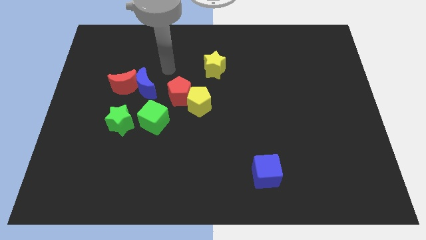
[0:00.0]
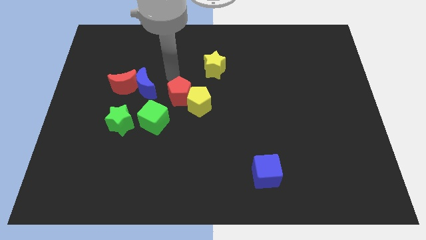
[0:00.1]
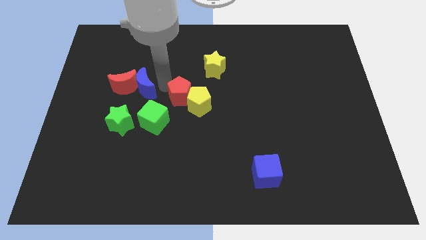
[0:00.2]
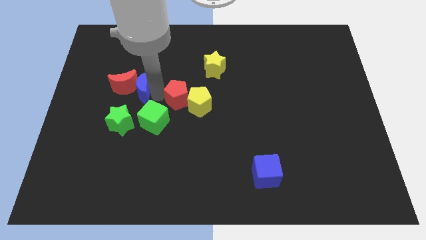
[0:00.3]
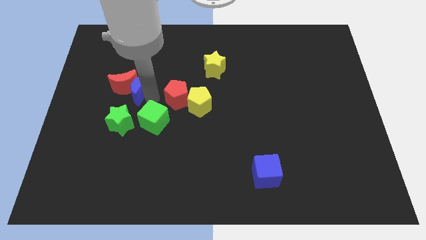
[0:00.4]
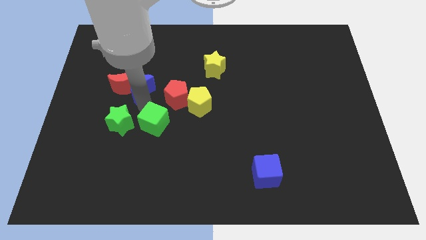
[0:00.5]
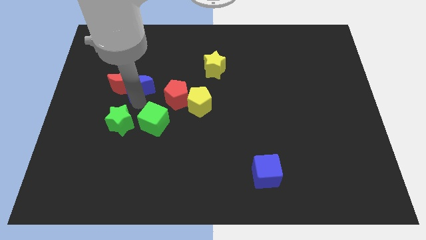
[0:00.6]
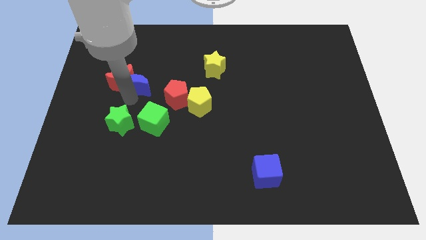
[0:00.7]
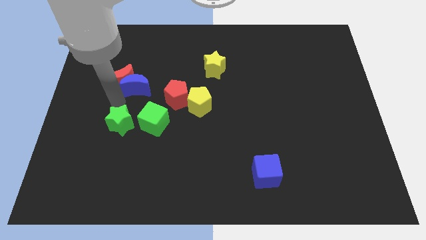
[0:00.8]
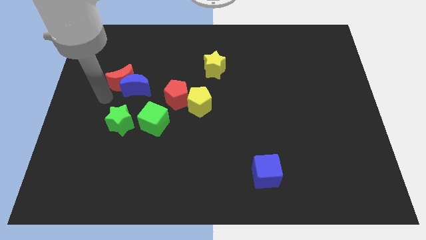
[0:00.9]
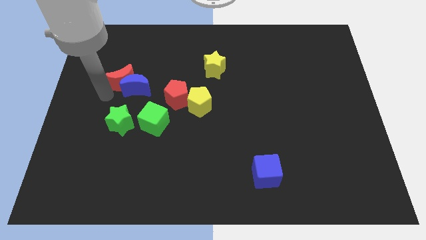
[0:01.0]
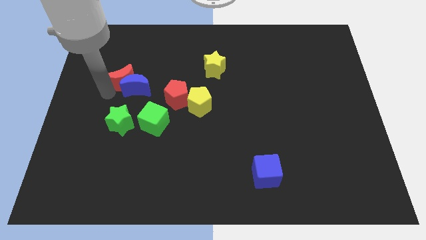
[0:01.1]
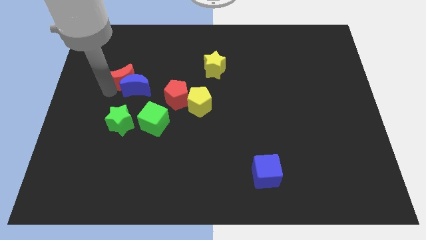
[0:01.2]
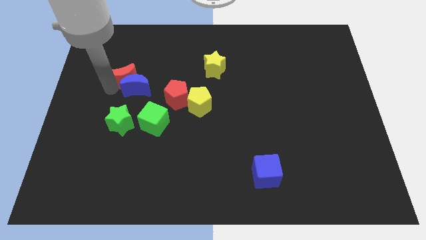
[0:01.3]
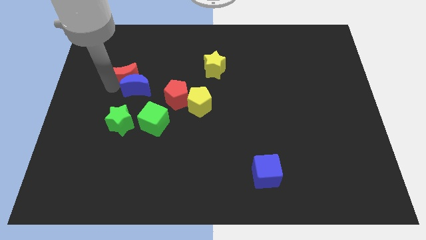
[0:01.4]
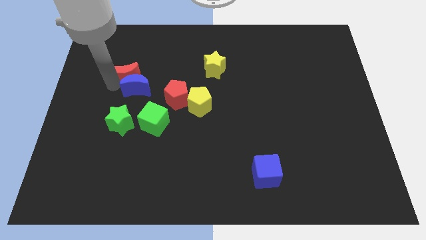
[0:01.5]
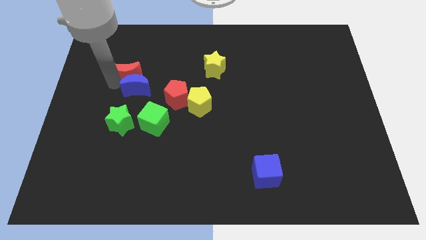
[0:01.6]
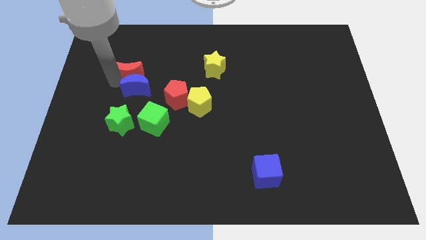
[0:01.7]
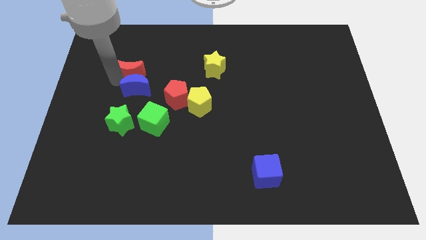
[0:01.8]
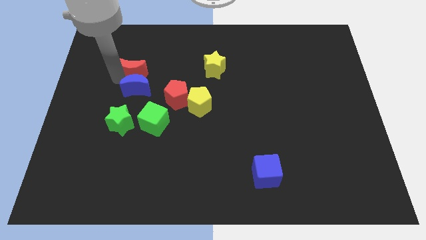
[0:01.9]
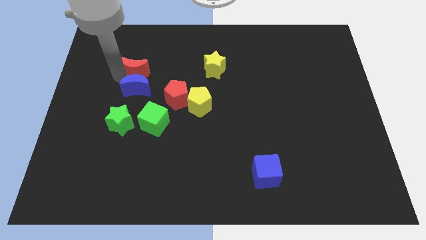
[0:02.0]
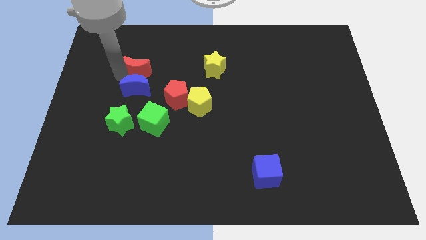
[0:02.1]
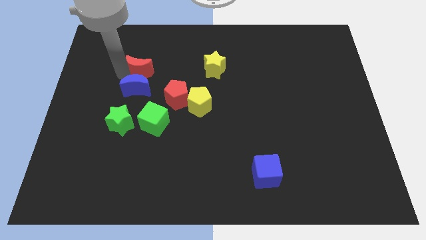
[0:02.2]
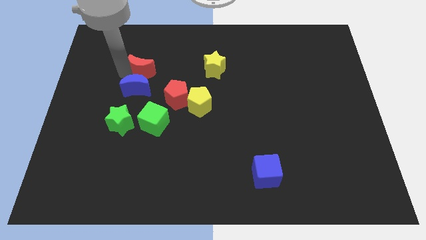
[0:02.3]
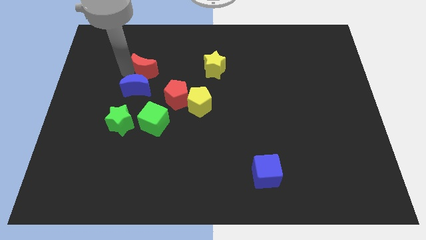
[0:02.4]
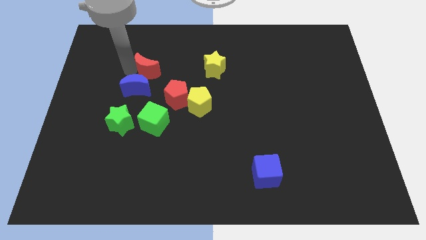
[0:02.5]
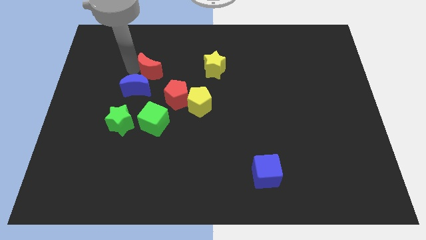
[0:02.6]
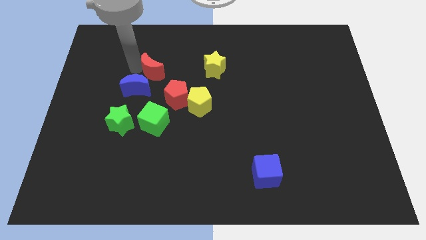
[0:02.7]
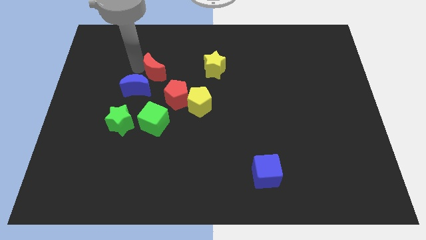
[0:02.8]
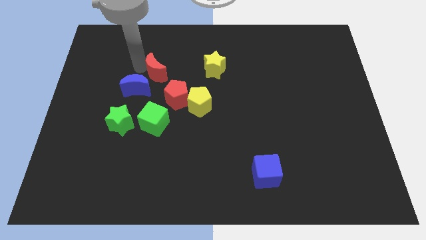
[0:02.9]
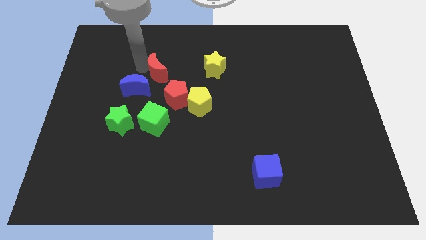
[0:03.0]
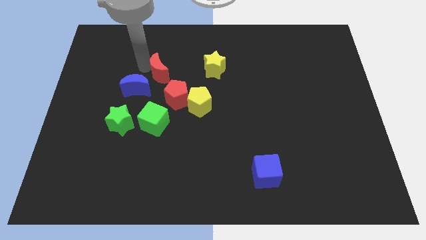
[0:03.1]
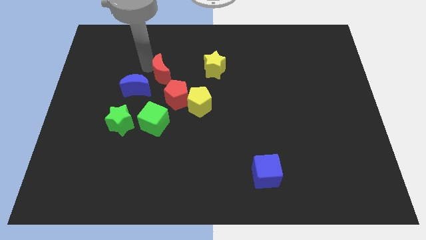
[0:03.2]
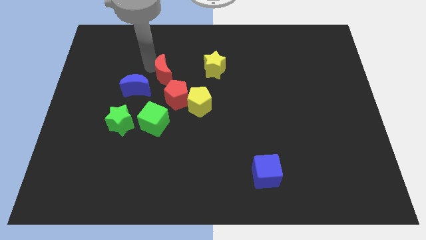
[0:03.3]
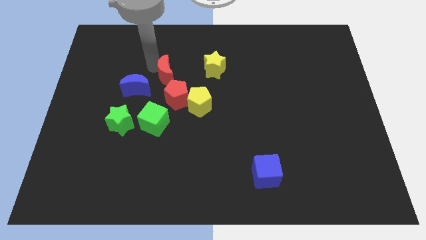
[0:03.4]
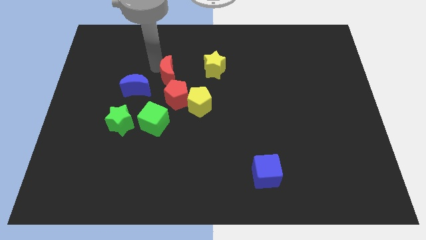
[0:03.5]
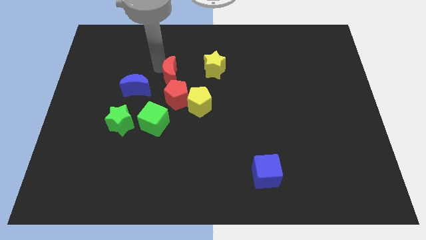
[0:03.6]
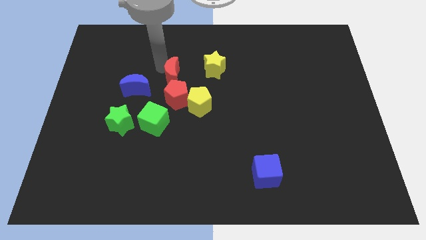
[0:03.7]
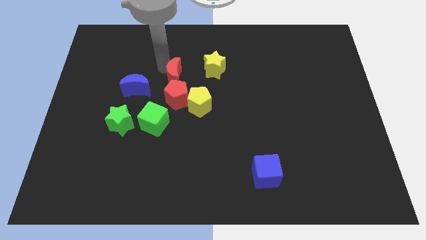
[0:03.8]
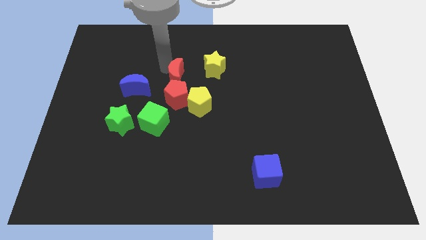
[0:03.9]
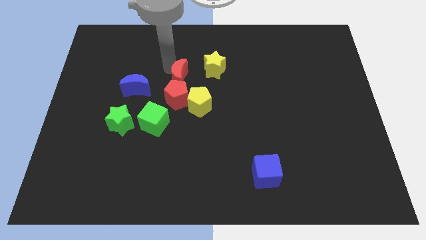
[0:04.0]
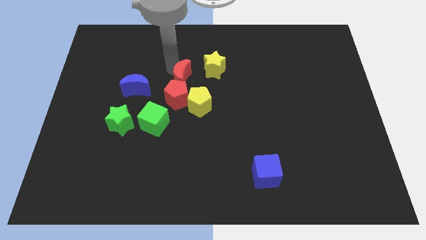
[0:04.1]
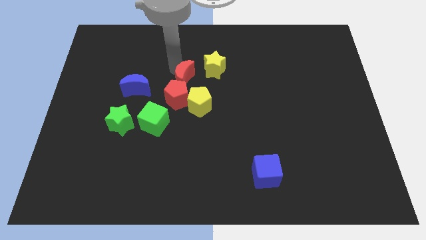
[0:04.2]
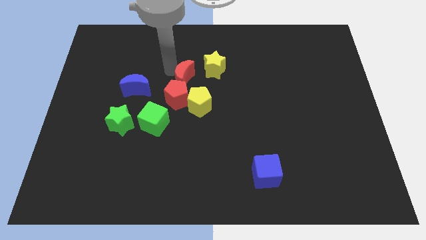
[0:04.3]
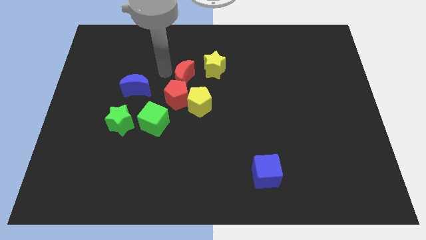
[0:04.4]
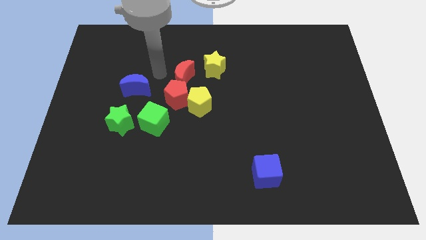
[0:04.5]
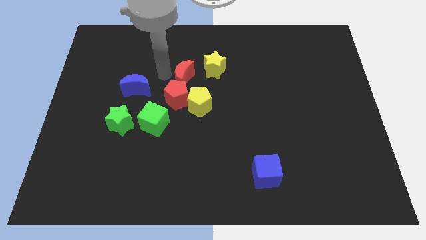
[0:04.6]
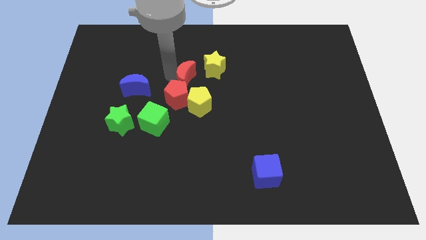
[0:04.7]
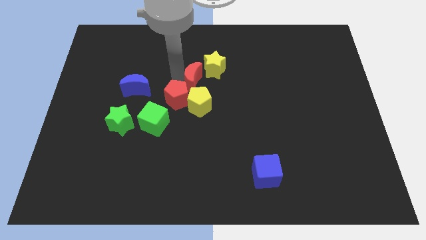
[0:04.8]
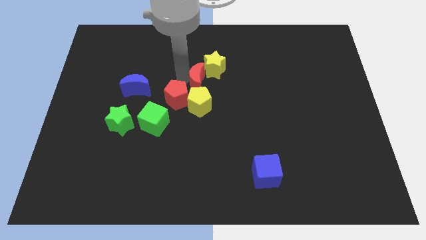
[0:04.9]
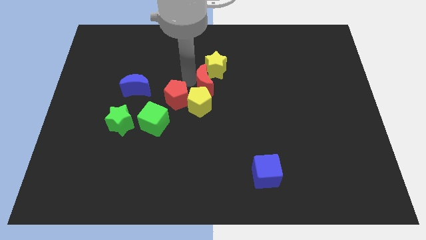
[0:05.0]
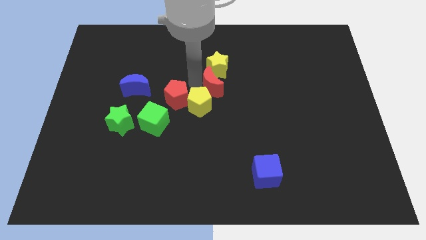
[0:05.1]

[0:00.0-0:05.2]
move the red moon right

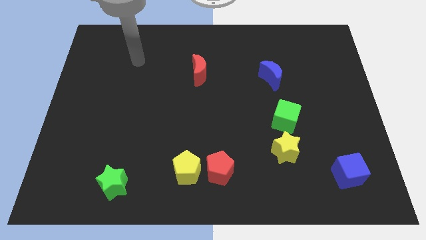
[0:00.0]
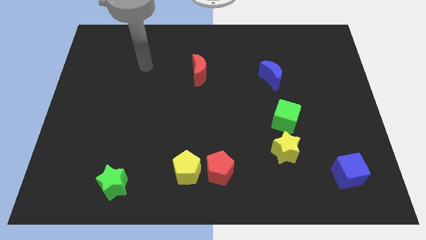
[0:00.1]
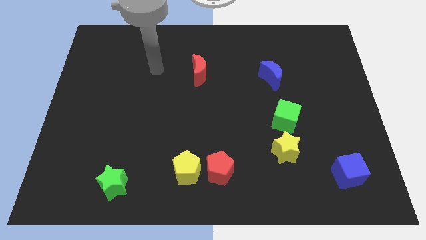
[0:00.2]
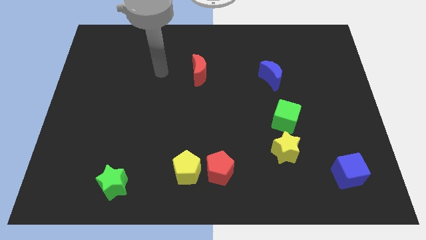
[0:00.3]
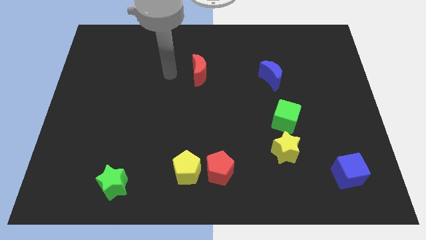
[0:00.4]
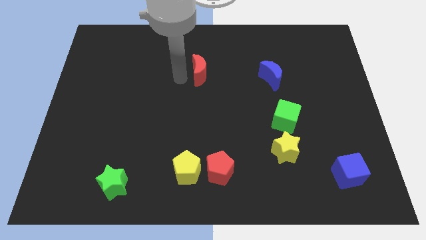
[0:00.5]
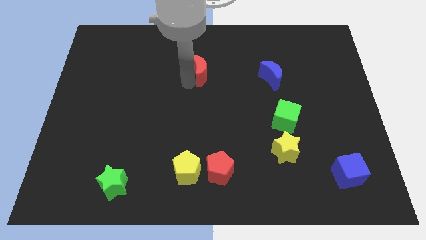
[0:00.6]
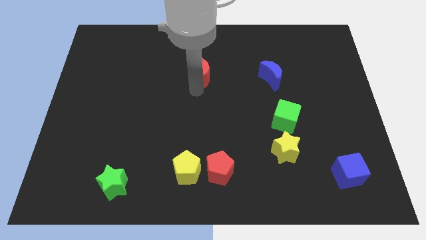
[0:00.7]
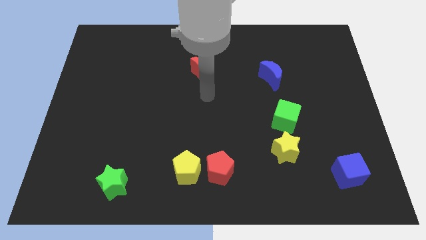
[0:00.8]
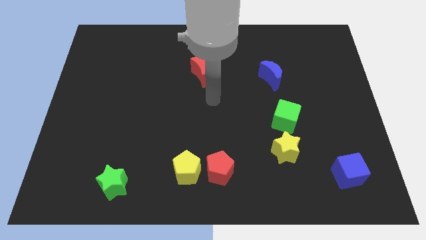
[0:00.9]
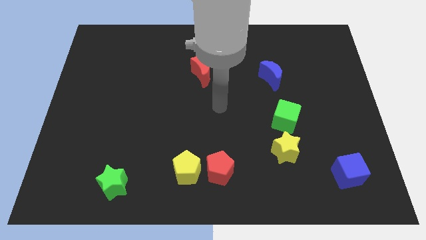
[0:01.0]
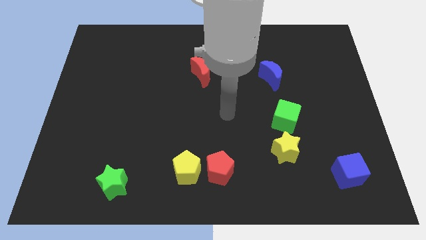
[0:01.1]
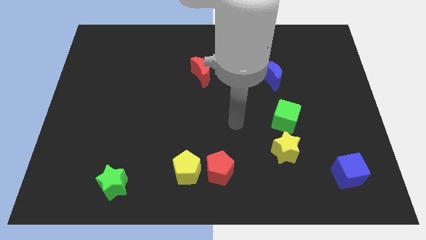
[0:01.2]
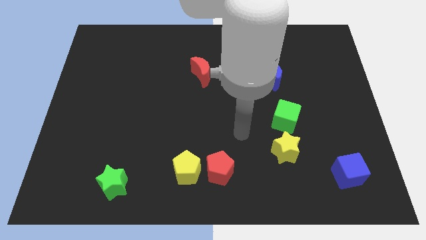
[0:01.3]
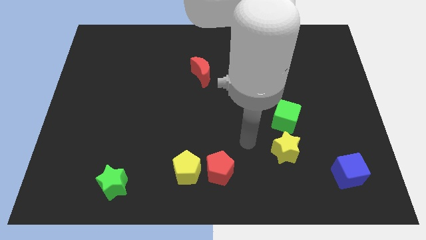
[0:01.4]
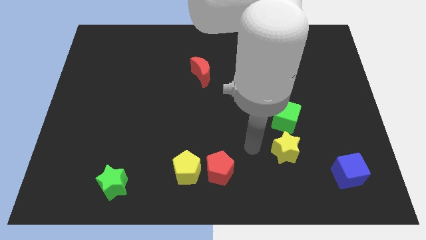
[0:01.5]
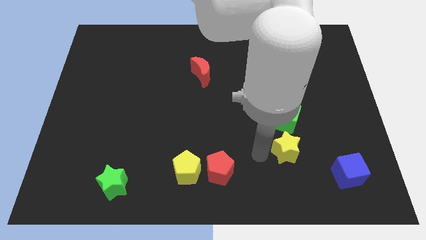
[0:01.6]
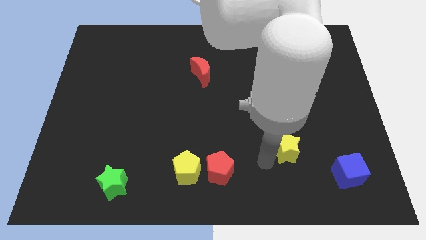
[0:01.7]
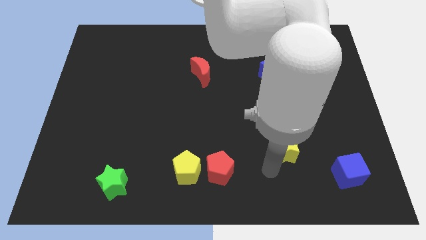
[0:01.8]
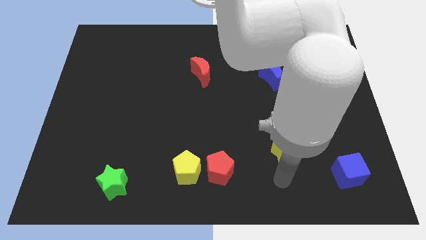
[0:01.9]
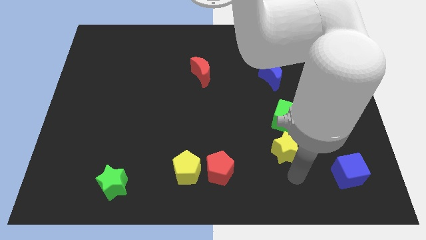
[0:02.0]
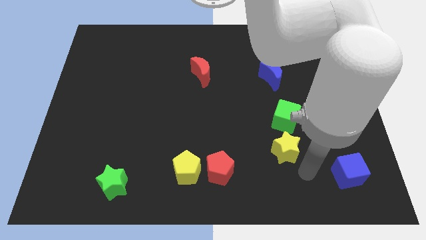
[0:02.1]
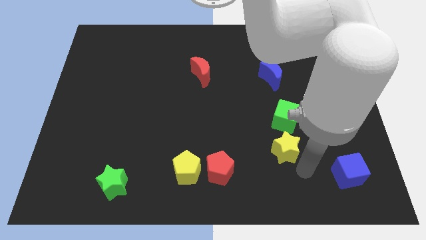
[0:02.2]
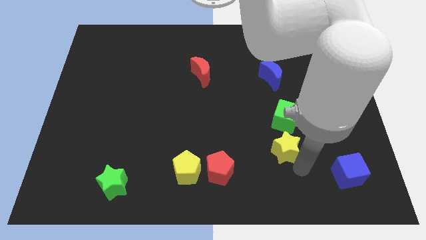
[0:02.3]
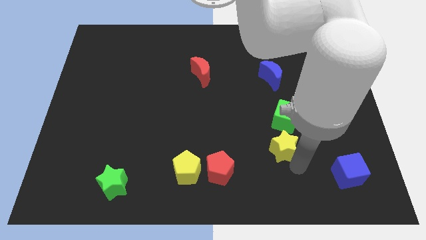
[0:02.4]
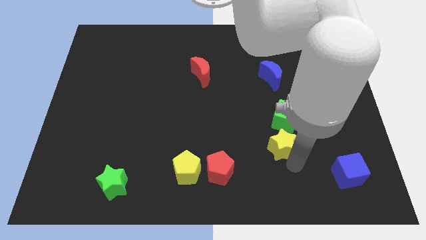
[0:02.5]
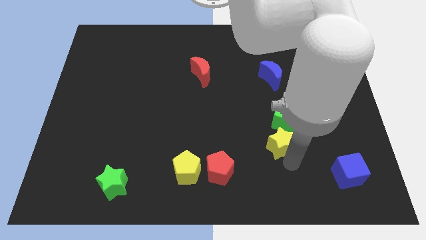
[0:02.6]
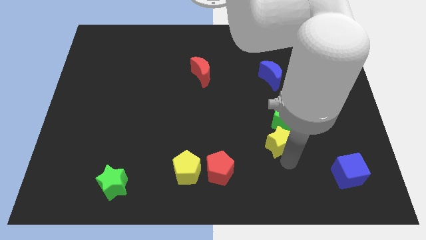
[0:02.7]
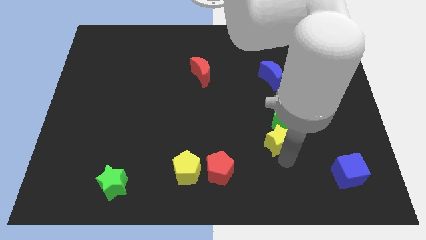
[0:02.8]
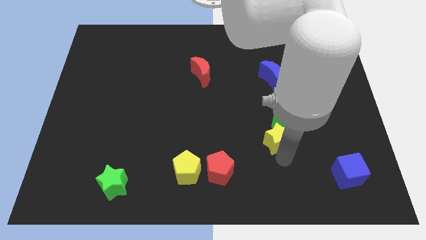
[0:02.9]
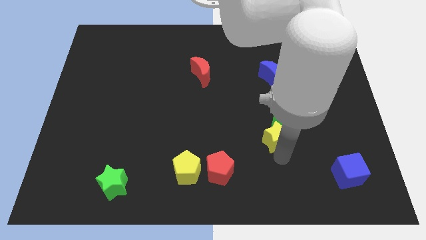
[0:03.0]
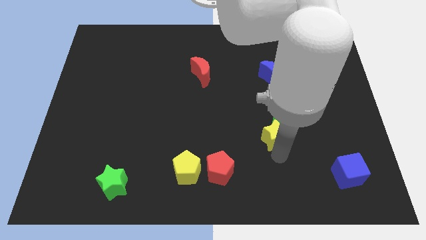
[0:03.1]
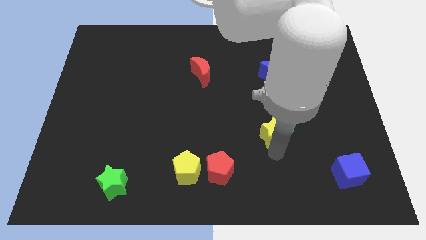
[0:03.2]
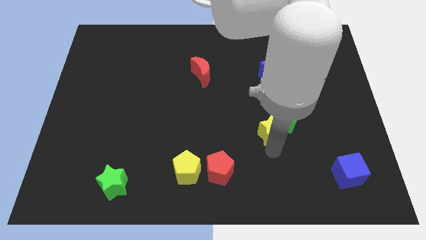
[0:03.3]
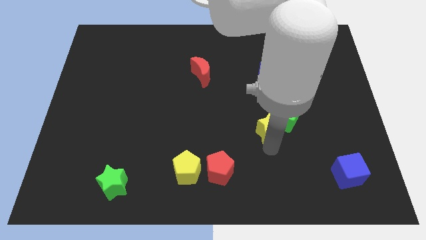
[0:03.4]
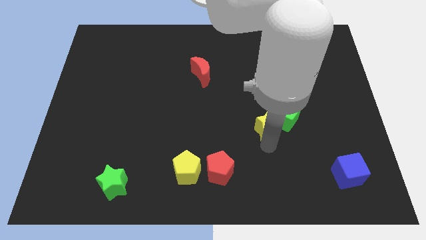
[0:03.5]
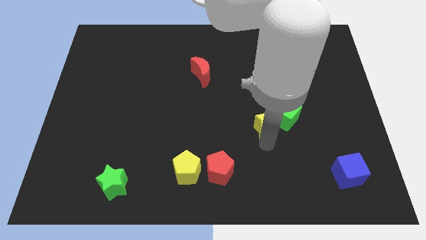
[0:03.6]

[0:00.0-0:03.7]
slightly move the yellow star upwards and left
